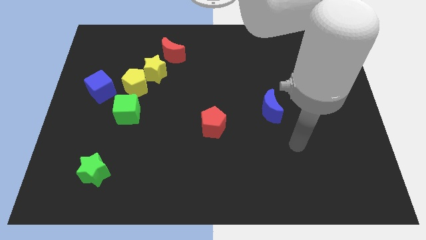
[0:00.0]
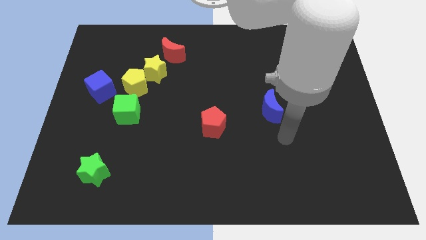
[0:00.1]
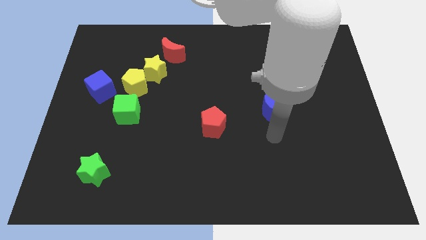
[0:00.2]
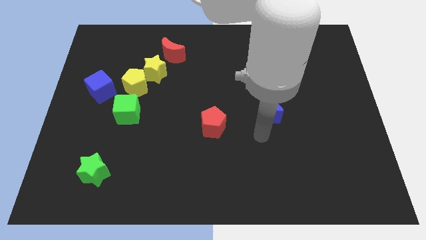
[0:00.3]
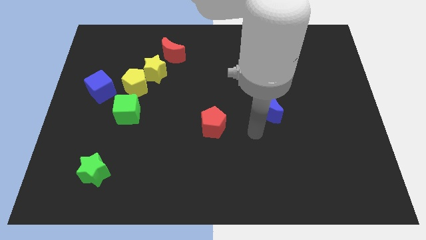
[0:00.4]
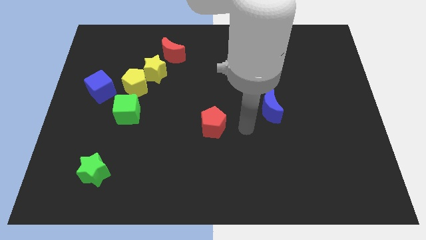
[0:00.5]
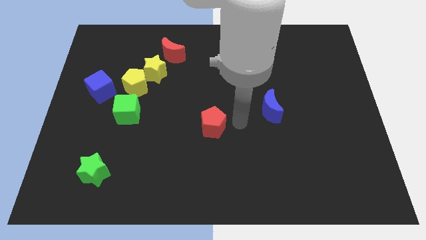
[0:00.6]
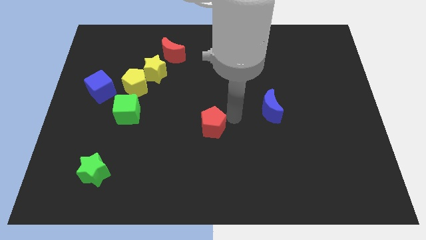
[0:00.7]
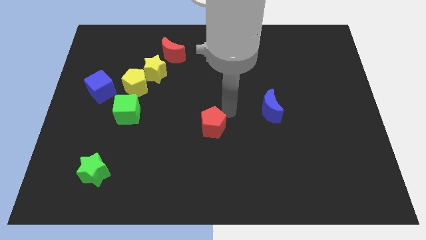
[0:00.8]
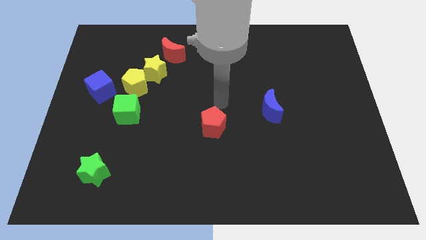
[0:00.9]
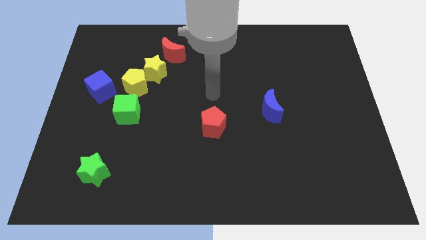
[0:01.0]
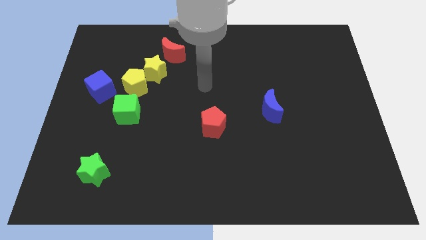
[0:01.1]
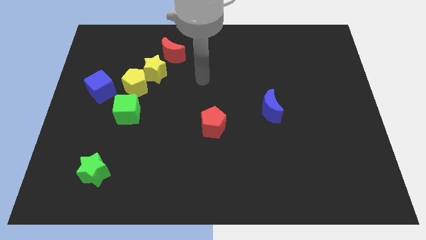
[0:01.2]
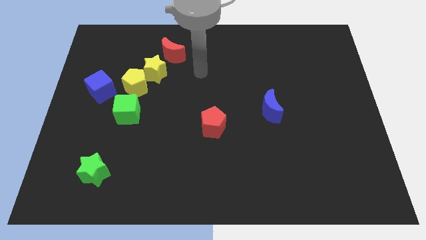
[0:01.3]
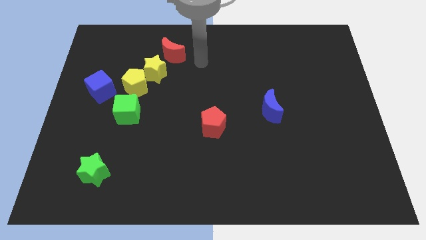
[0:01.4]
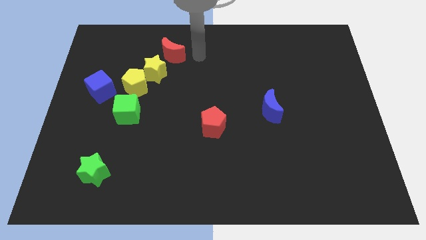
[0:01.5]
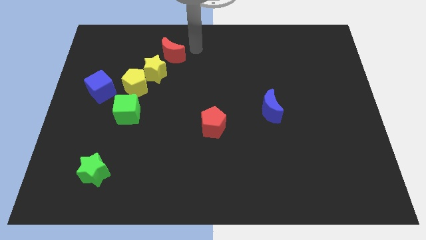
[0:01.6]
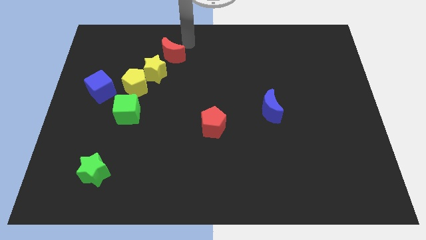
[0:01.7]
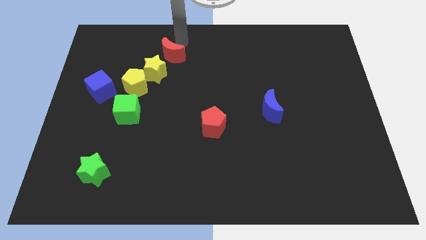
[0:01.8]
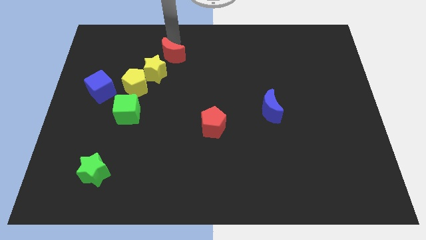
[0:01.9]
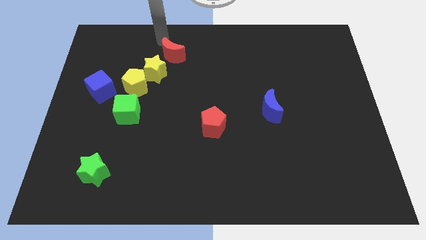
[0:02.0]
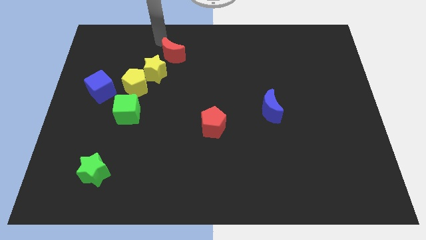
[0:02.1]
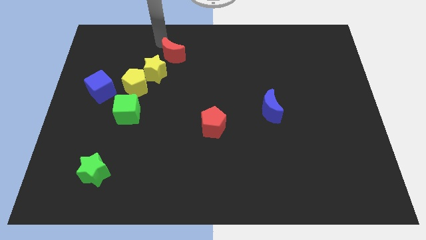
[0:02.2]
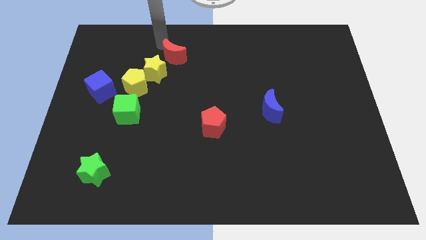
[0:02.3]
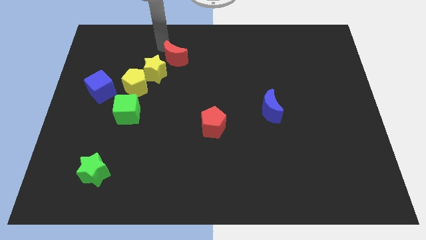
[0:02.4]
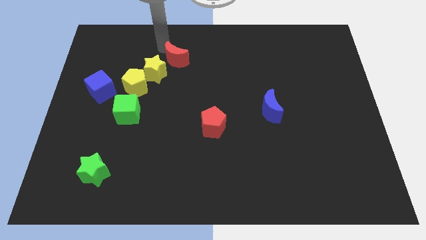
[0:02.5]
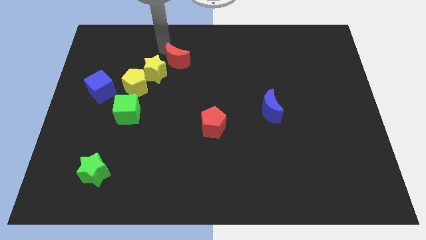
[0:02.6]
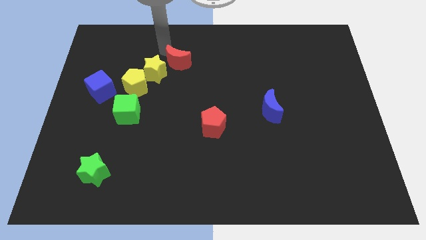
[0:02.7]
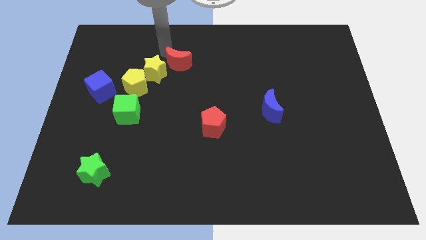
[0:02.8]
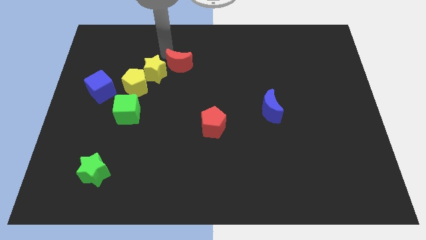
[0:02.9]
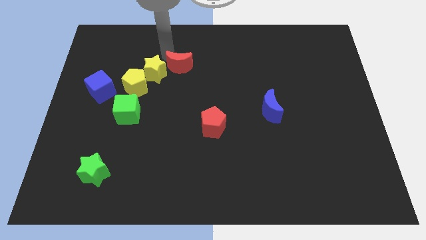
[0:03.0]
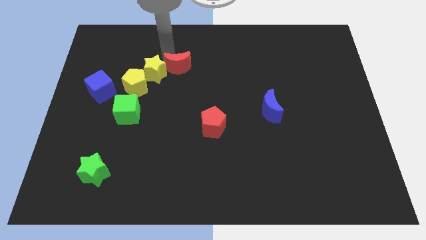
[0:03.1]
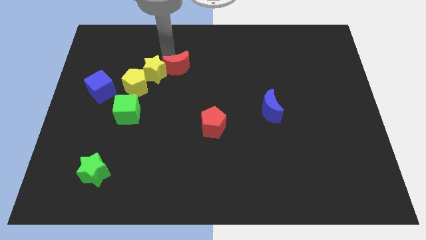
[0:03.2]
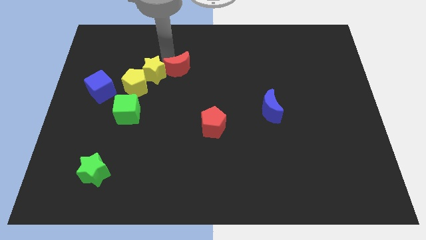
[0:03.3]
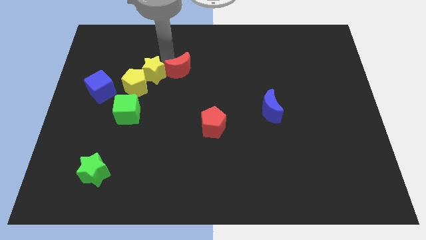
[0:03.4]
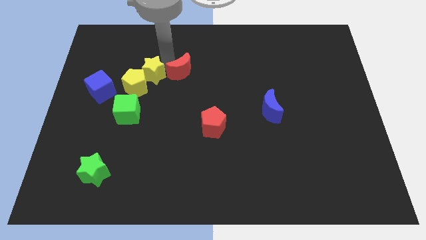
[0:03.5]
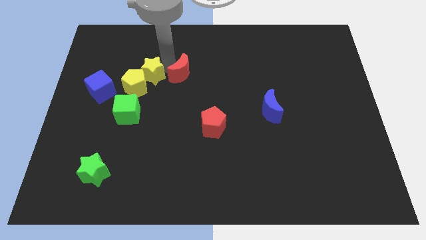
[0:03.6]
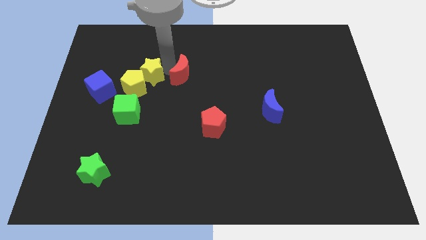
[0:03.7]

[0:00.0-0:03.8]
move the red moon down and then right a little

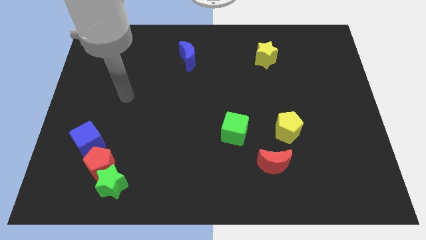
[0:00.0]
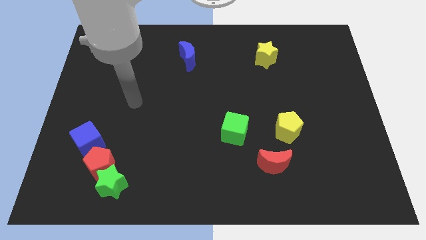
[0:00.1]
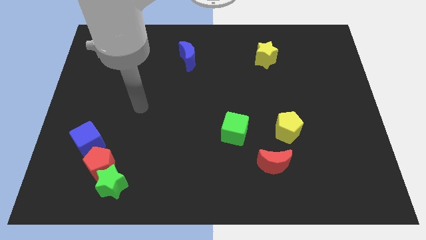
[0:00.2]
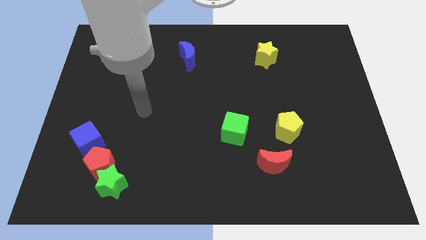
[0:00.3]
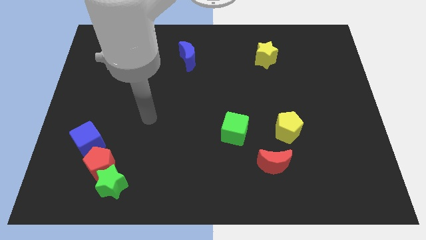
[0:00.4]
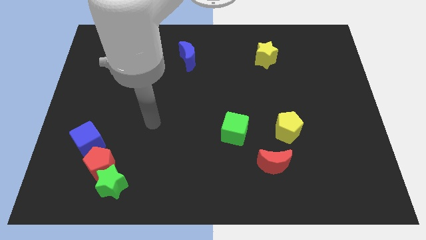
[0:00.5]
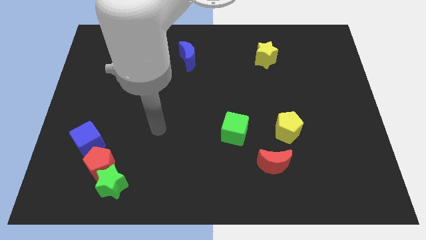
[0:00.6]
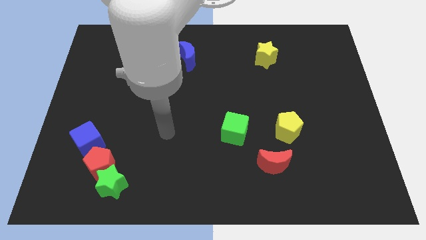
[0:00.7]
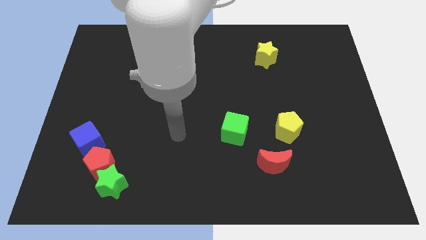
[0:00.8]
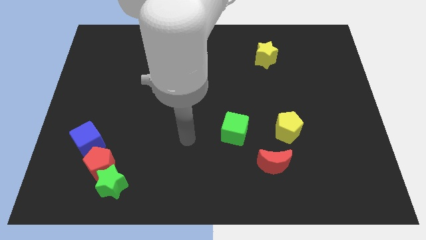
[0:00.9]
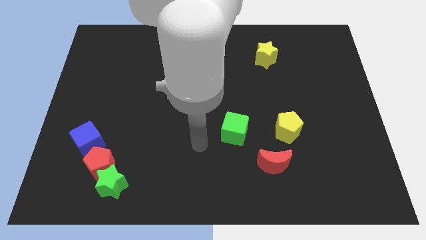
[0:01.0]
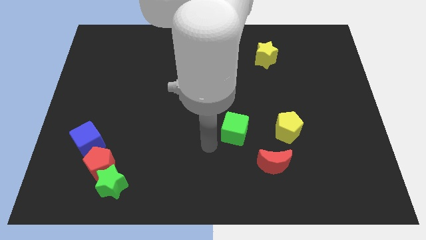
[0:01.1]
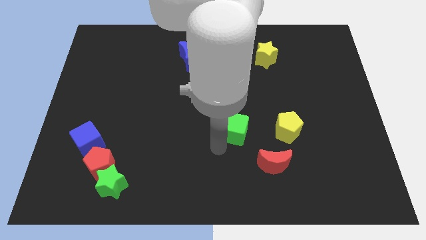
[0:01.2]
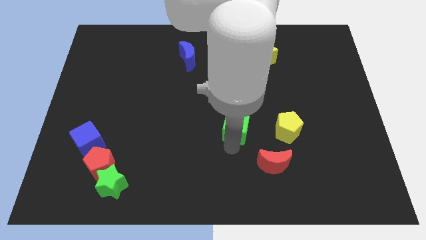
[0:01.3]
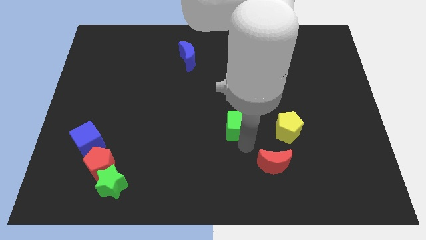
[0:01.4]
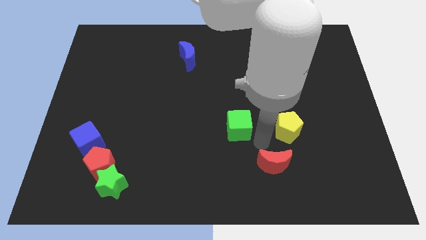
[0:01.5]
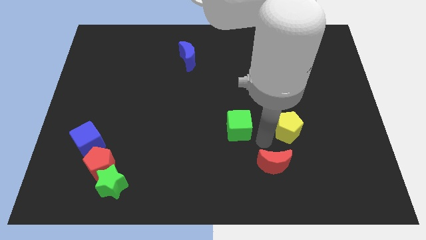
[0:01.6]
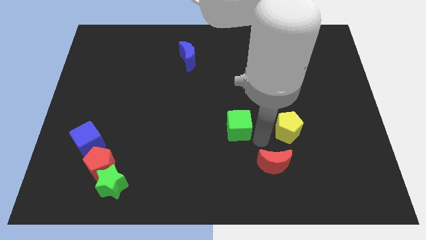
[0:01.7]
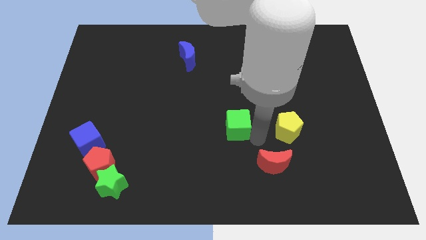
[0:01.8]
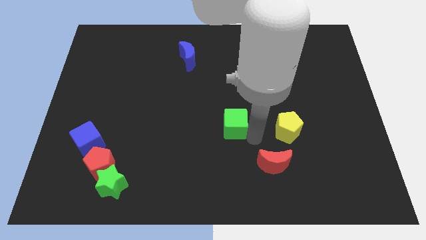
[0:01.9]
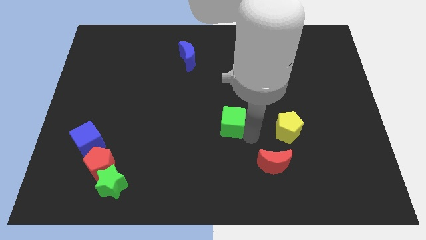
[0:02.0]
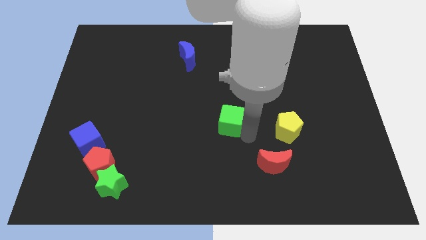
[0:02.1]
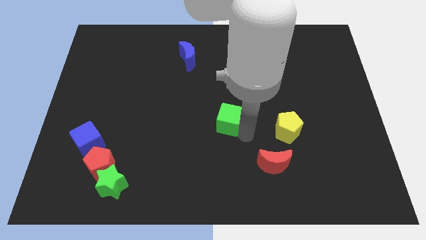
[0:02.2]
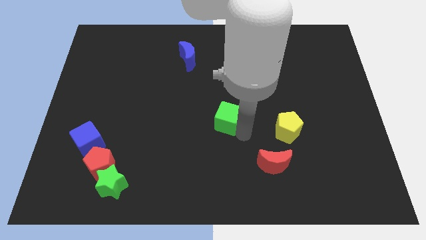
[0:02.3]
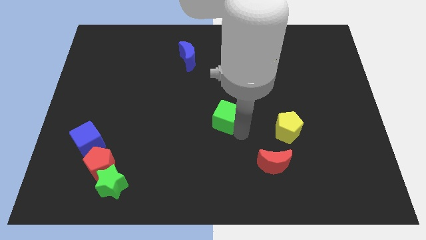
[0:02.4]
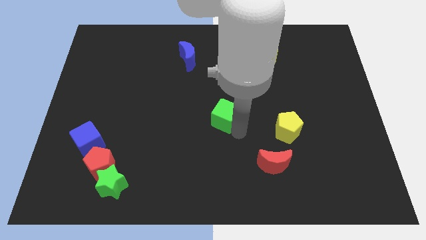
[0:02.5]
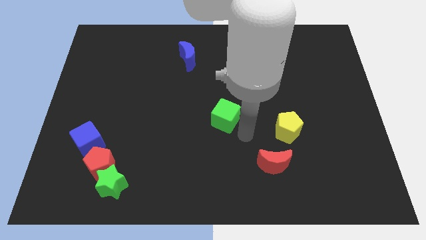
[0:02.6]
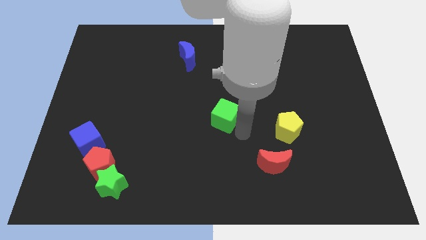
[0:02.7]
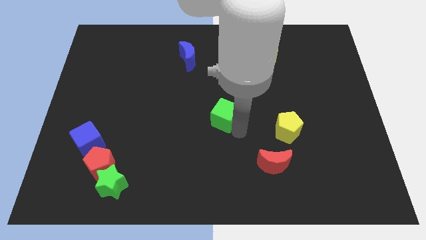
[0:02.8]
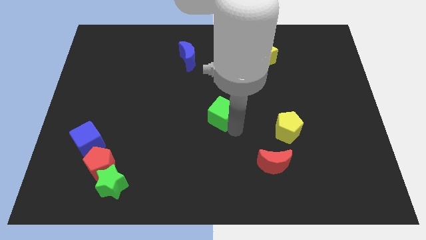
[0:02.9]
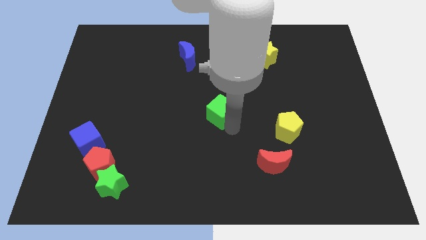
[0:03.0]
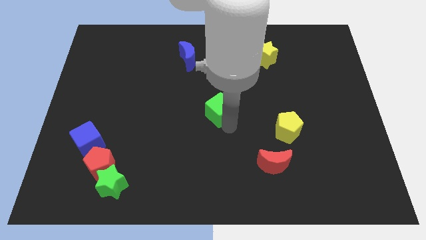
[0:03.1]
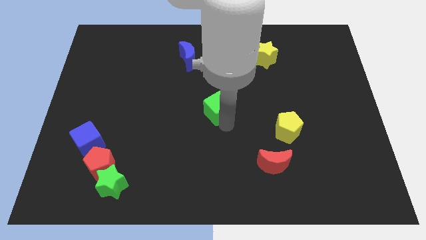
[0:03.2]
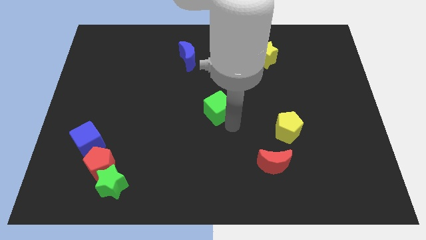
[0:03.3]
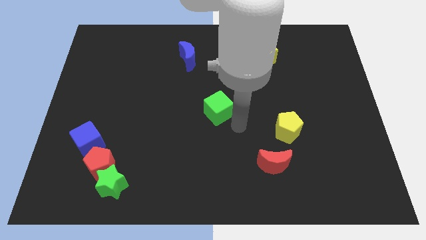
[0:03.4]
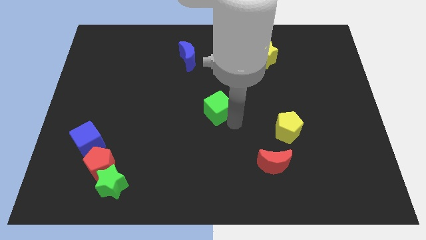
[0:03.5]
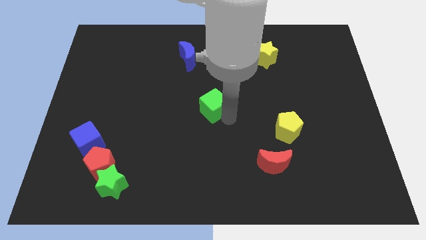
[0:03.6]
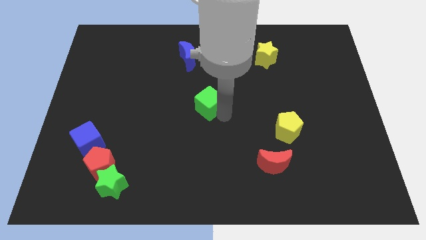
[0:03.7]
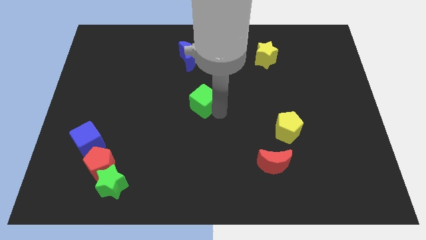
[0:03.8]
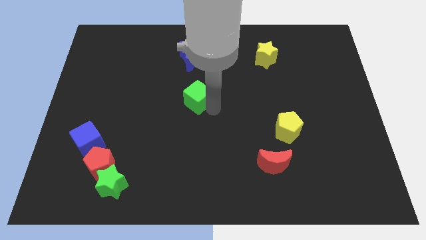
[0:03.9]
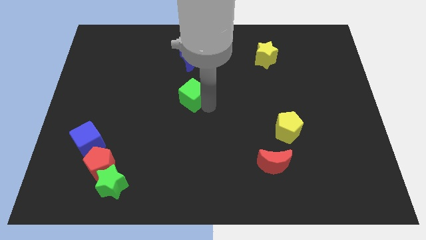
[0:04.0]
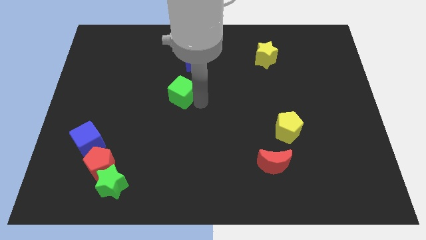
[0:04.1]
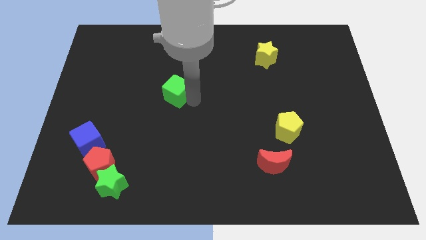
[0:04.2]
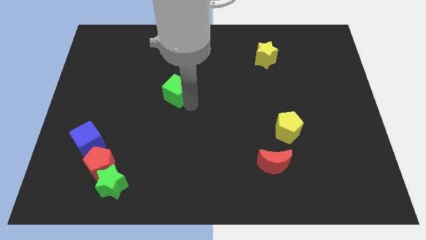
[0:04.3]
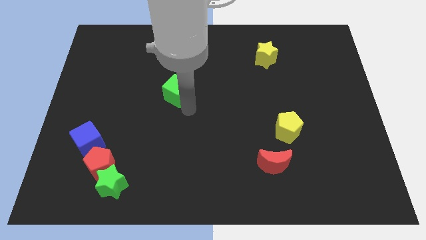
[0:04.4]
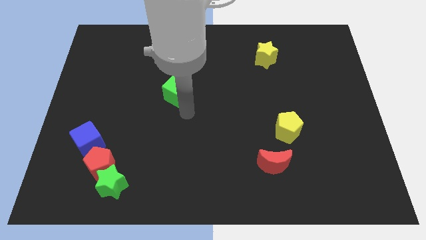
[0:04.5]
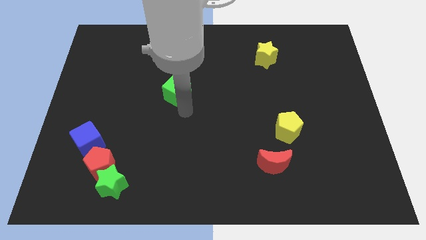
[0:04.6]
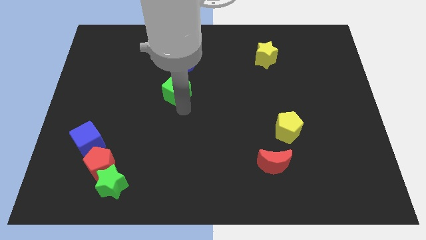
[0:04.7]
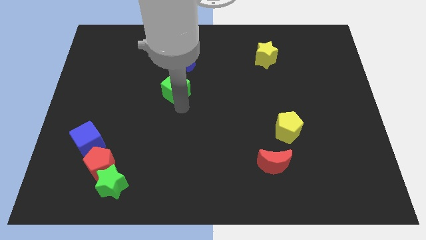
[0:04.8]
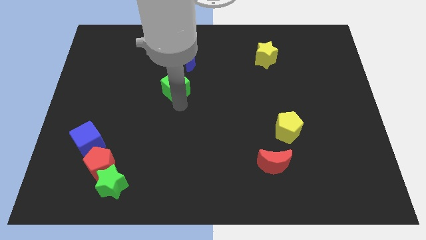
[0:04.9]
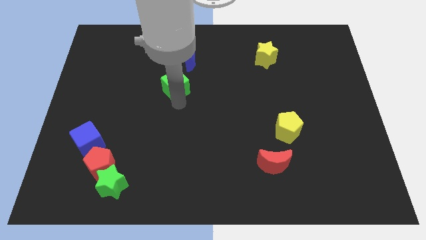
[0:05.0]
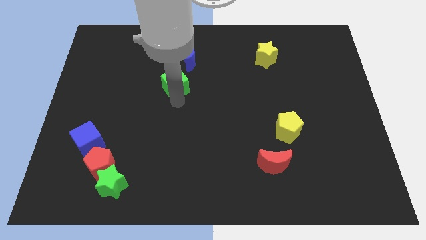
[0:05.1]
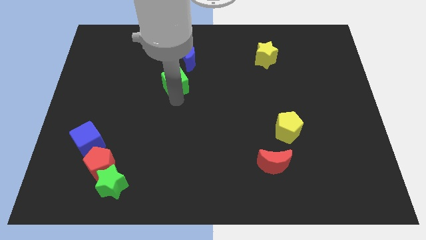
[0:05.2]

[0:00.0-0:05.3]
move the green cube diagonally upwards and to the left
